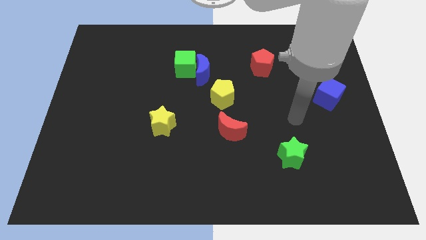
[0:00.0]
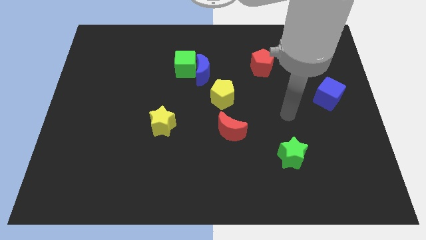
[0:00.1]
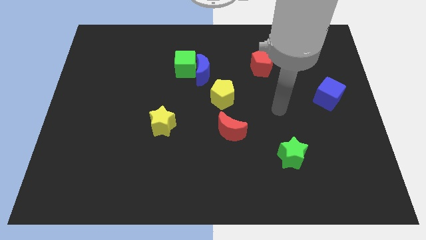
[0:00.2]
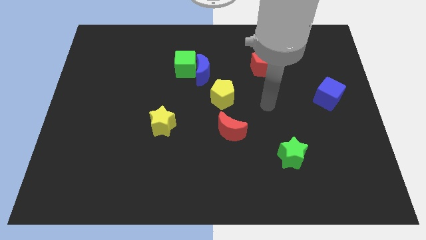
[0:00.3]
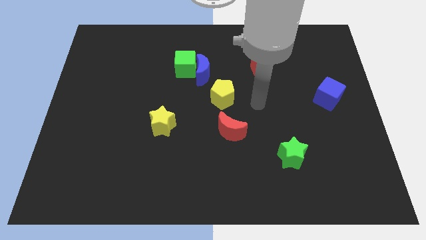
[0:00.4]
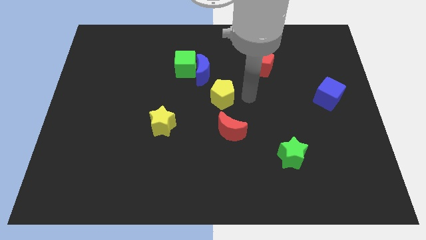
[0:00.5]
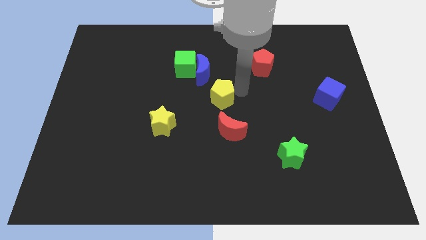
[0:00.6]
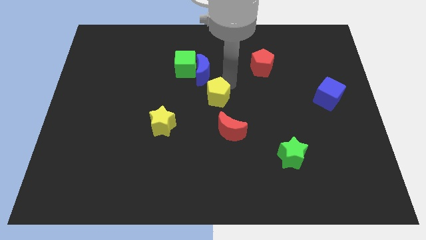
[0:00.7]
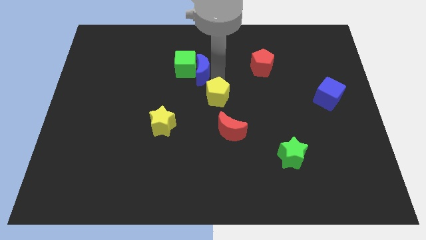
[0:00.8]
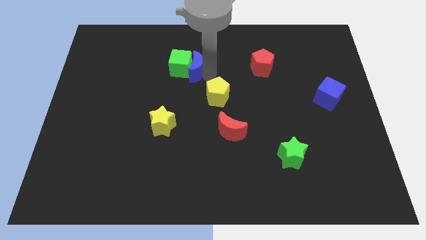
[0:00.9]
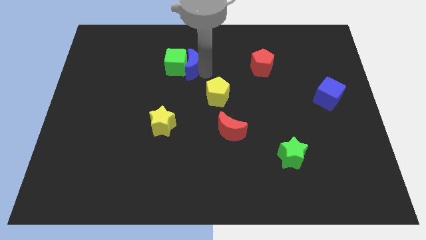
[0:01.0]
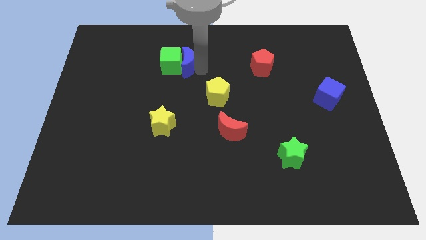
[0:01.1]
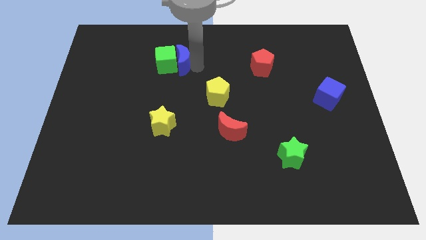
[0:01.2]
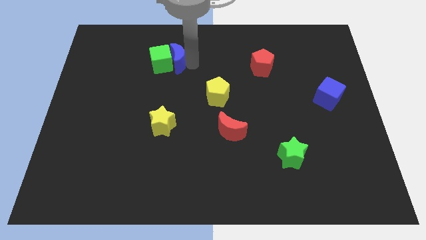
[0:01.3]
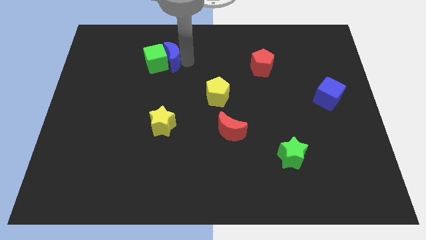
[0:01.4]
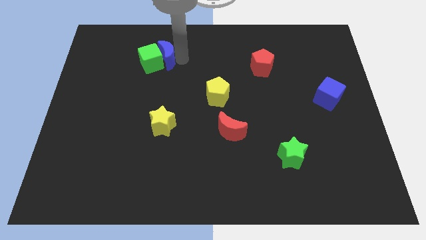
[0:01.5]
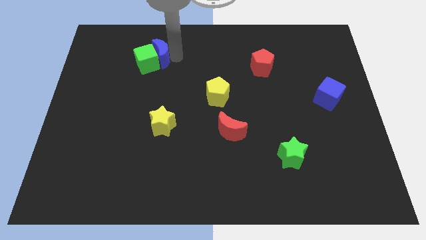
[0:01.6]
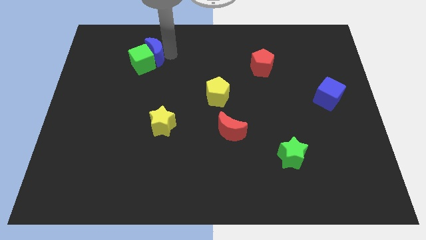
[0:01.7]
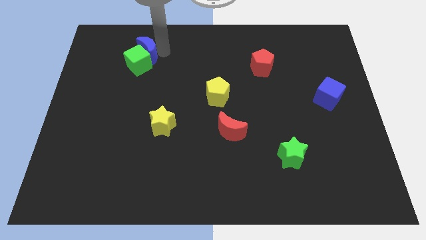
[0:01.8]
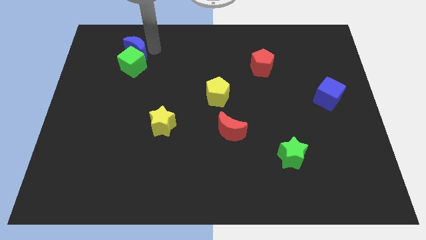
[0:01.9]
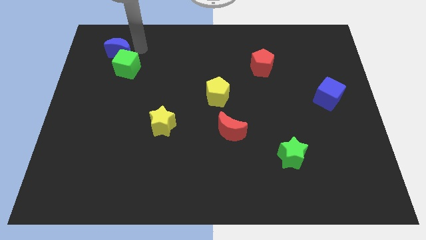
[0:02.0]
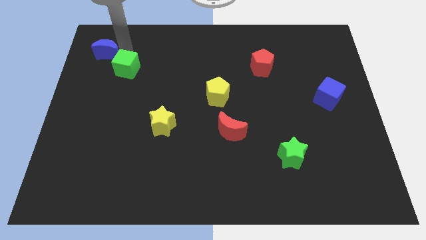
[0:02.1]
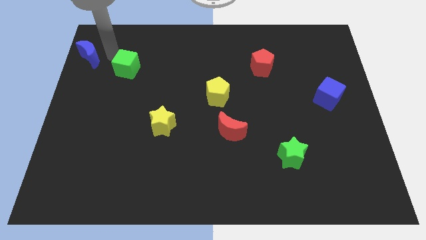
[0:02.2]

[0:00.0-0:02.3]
pull the green cube apart from the blue moon

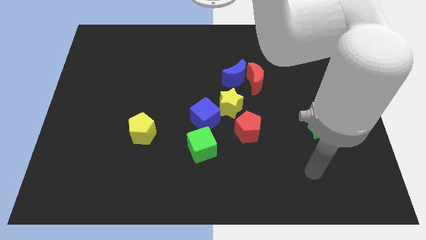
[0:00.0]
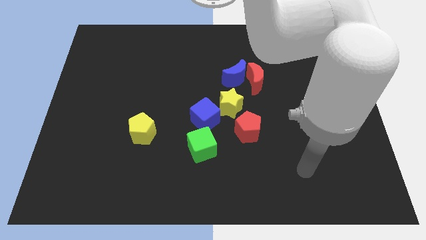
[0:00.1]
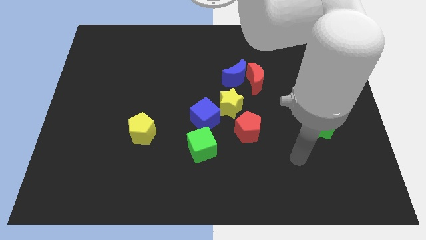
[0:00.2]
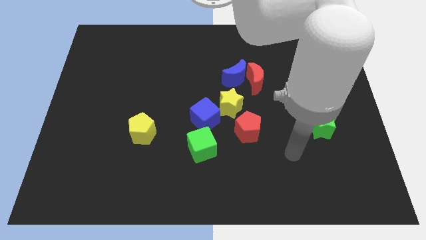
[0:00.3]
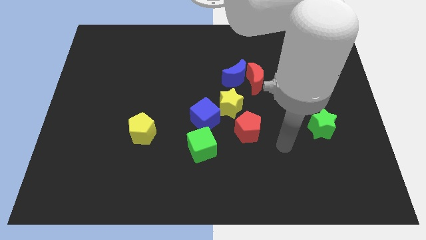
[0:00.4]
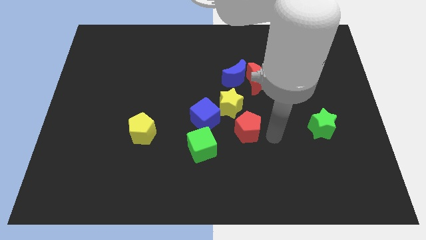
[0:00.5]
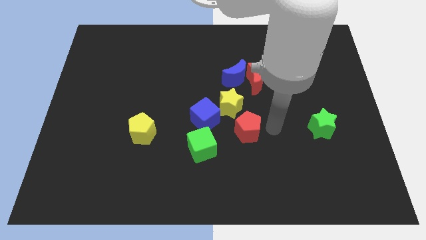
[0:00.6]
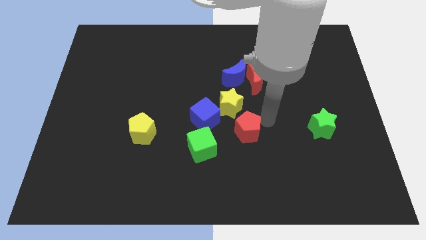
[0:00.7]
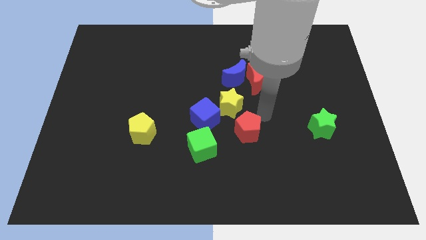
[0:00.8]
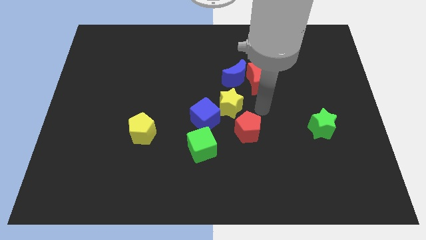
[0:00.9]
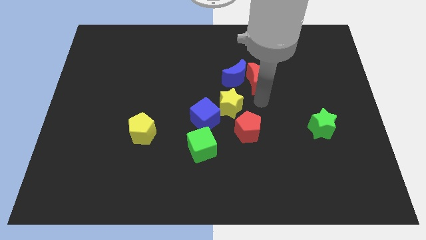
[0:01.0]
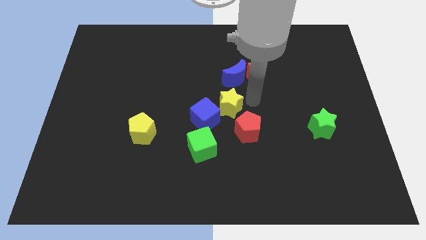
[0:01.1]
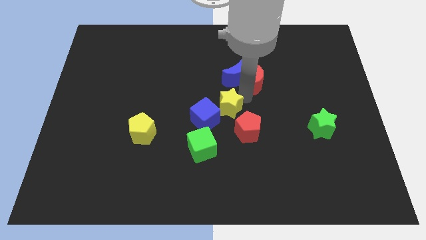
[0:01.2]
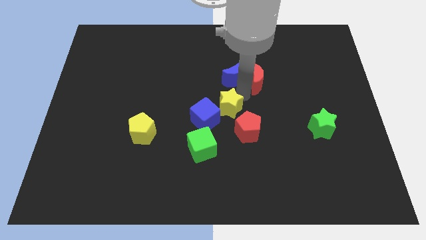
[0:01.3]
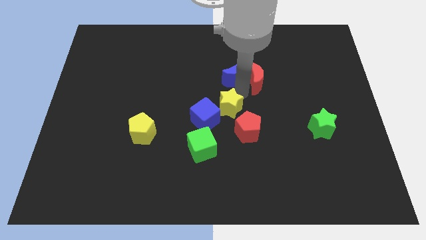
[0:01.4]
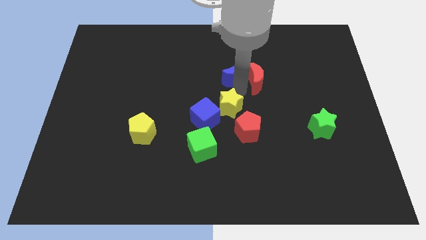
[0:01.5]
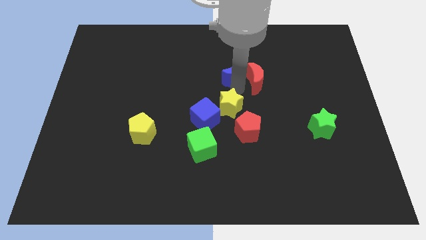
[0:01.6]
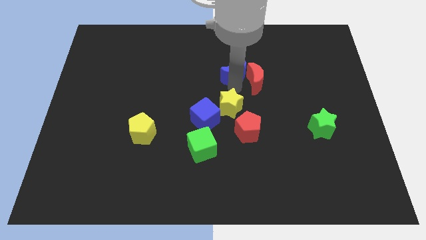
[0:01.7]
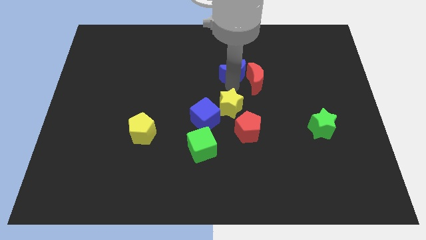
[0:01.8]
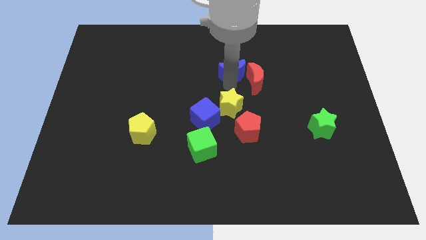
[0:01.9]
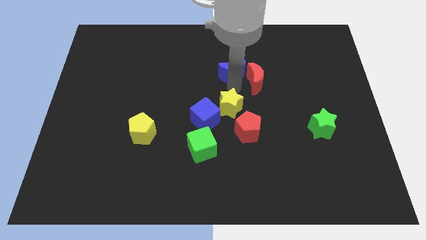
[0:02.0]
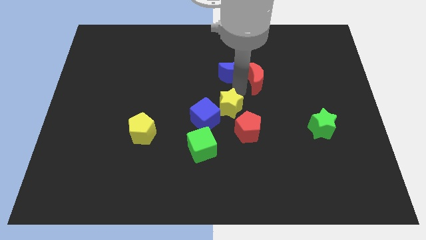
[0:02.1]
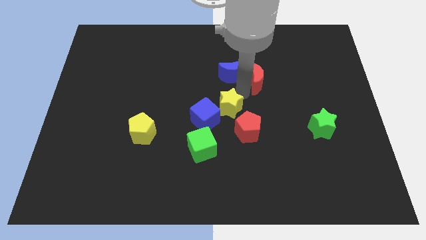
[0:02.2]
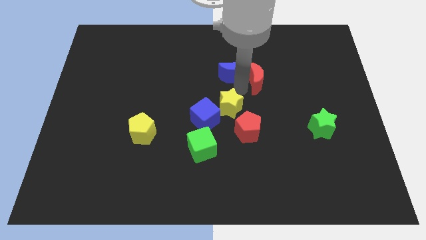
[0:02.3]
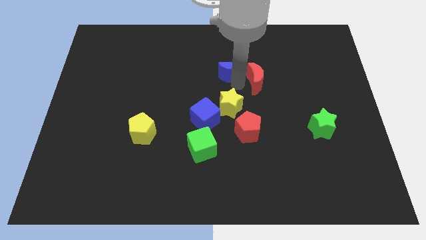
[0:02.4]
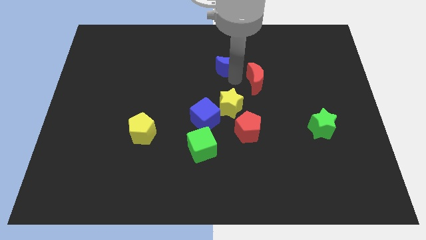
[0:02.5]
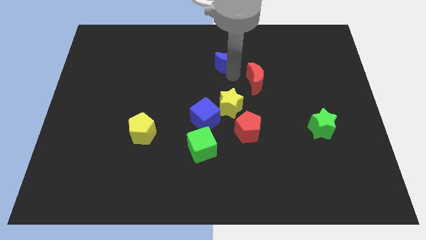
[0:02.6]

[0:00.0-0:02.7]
move the blue moon away from the red moon and yellow star

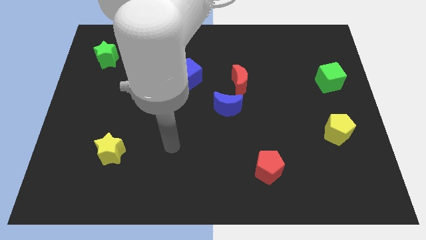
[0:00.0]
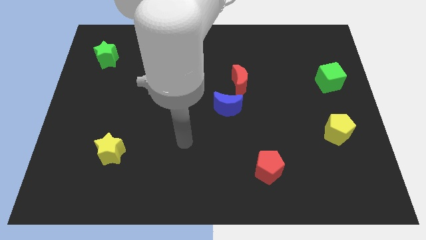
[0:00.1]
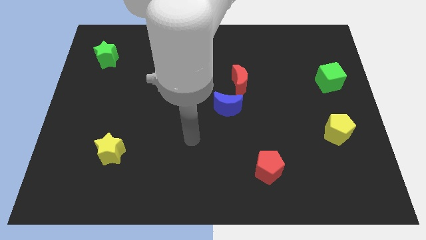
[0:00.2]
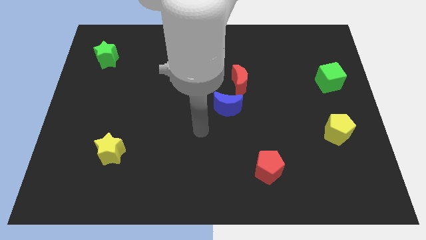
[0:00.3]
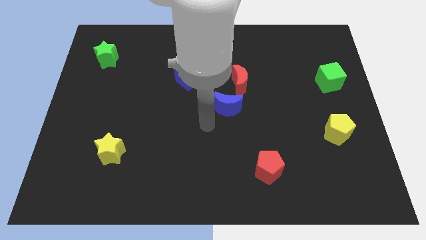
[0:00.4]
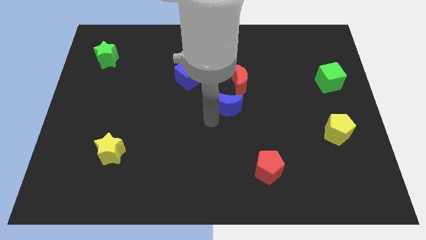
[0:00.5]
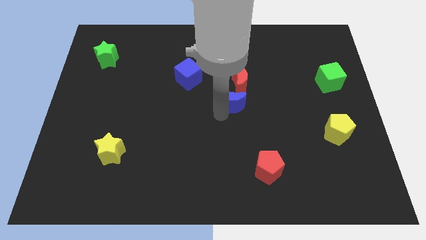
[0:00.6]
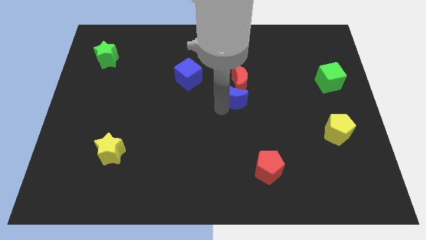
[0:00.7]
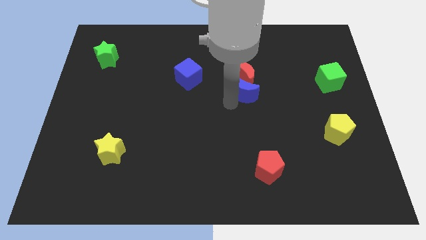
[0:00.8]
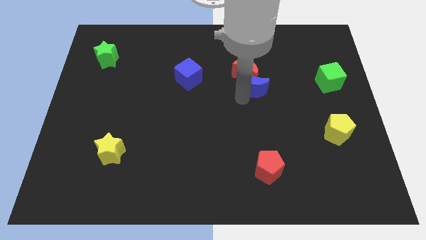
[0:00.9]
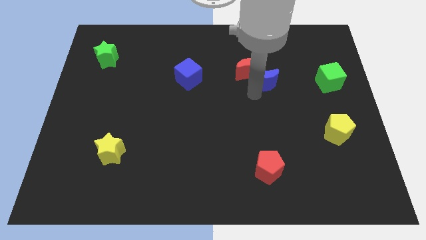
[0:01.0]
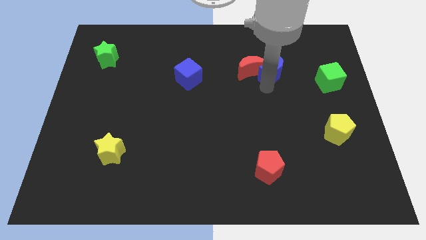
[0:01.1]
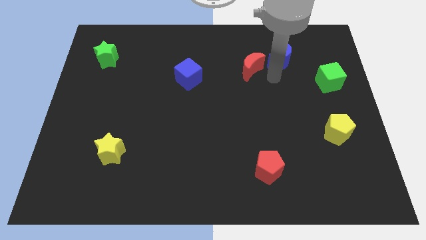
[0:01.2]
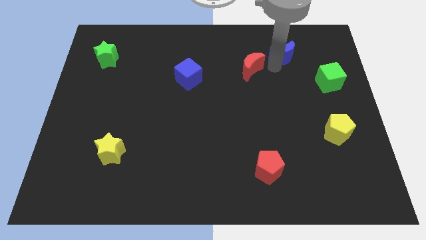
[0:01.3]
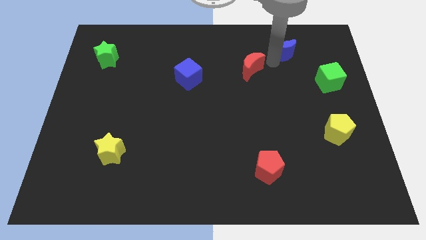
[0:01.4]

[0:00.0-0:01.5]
separate the red moon from the blue moon

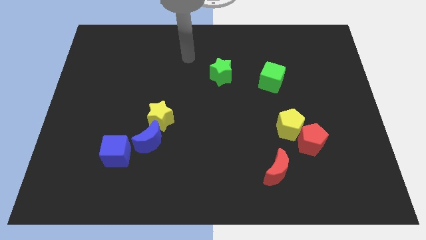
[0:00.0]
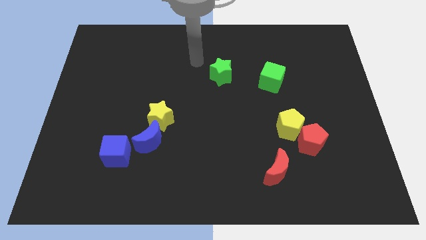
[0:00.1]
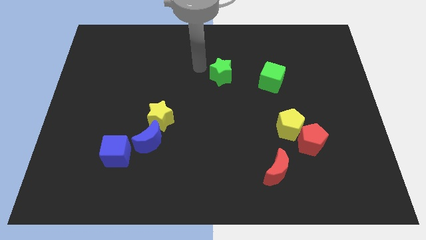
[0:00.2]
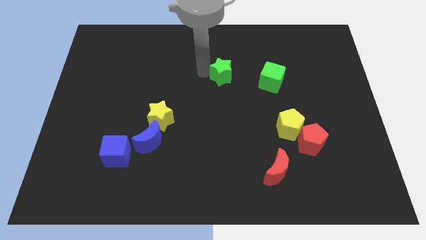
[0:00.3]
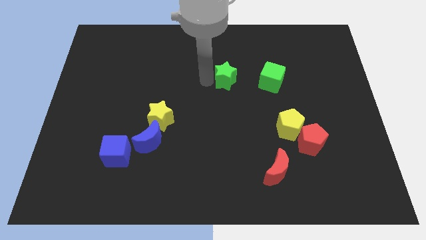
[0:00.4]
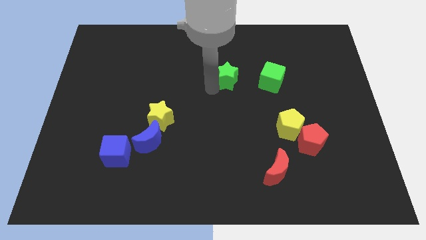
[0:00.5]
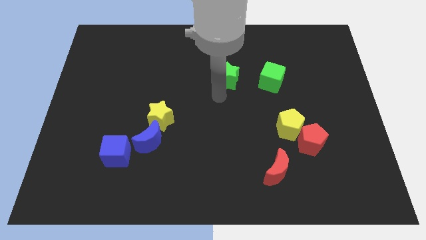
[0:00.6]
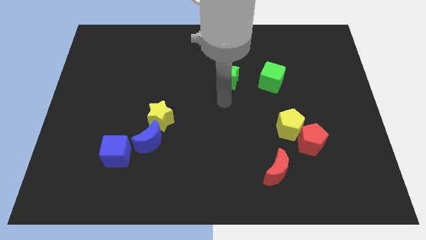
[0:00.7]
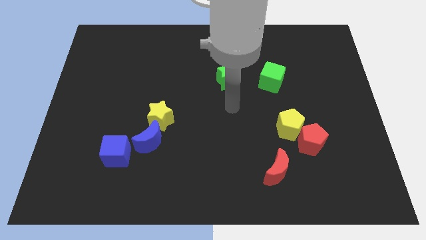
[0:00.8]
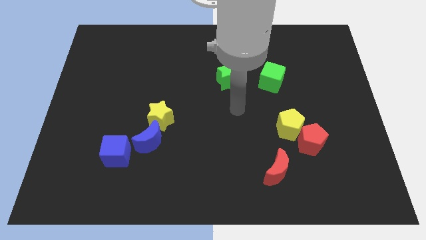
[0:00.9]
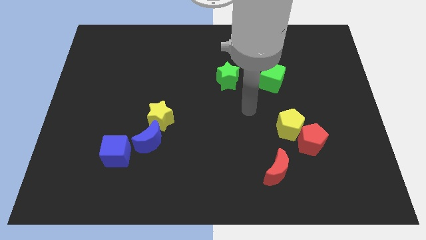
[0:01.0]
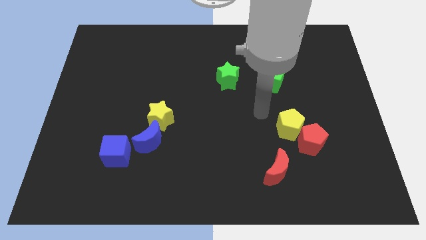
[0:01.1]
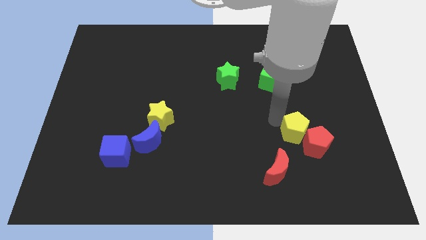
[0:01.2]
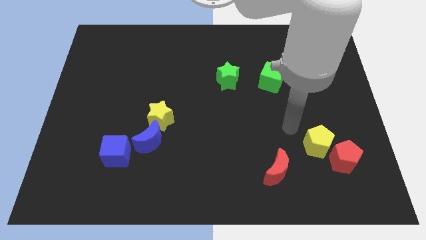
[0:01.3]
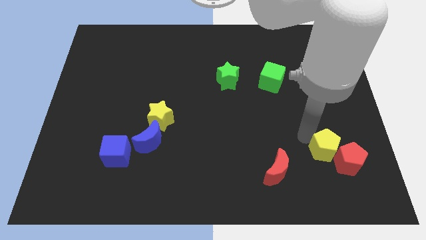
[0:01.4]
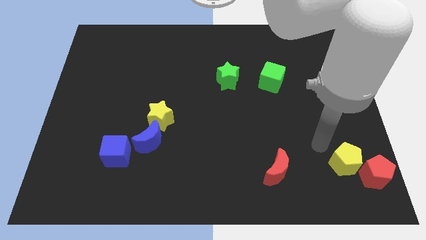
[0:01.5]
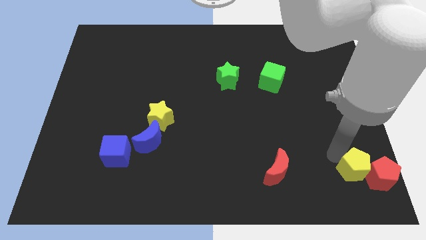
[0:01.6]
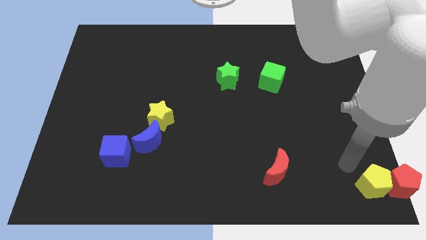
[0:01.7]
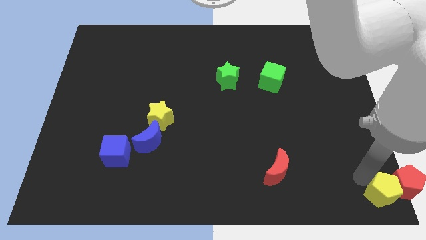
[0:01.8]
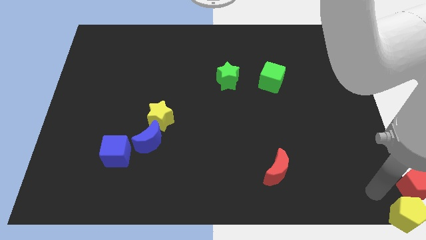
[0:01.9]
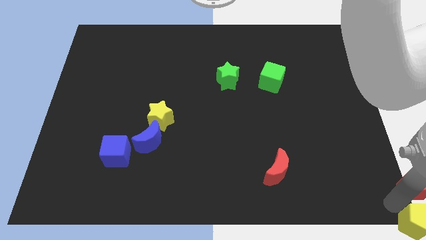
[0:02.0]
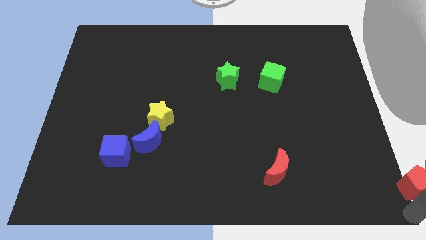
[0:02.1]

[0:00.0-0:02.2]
move the red pentagon away from the yellow pentagon

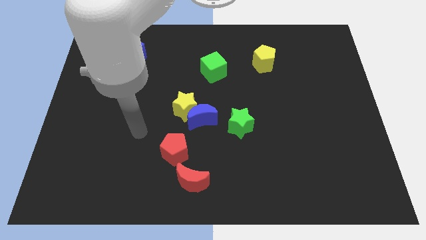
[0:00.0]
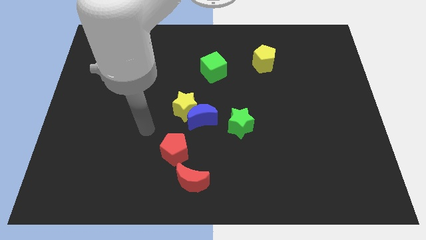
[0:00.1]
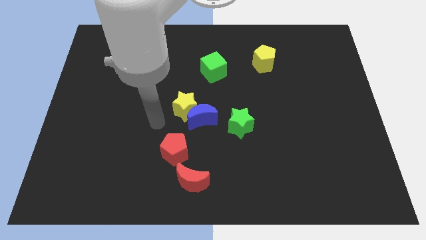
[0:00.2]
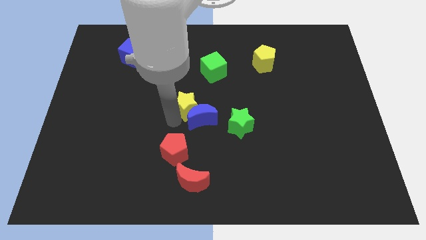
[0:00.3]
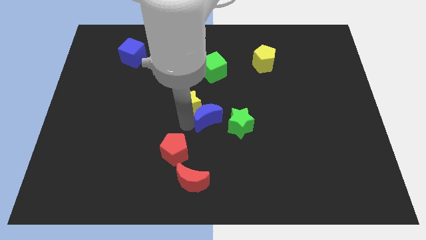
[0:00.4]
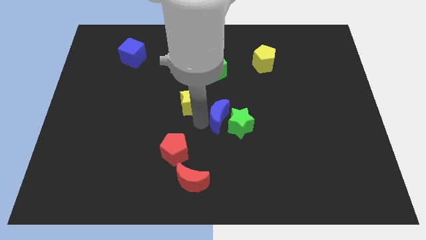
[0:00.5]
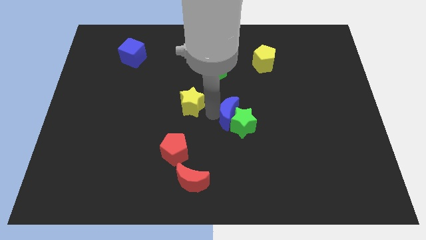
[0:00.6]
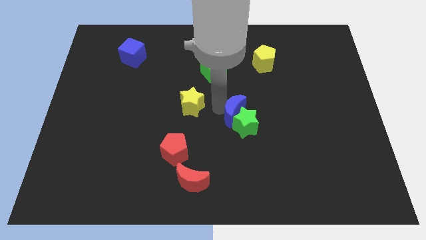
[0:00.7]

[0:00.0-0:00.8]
separate the yellow star from the blue moon
